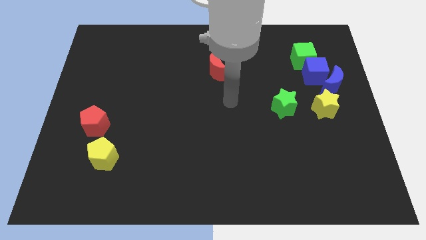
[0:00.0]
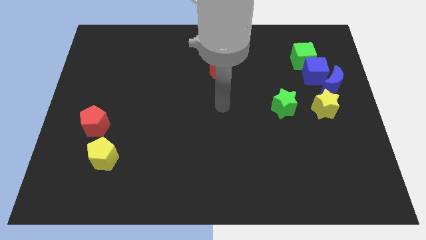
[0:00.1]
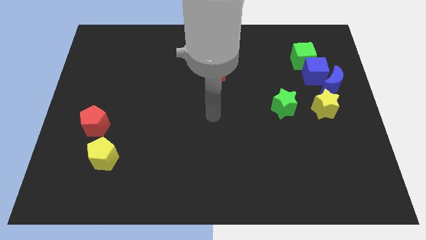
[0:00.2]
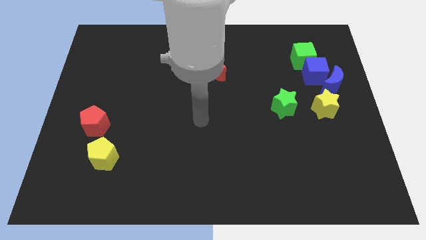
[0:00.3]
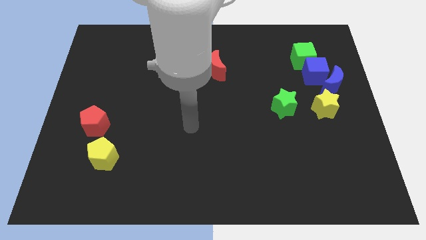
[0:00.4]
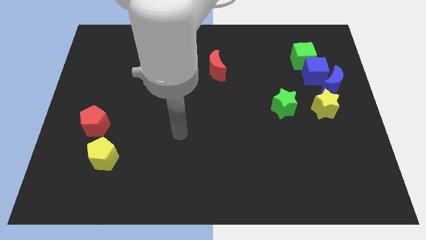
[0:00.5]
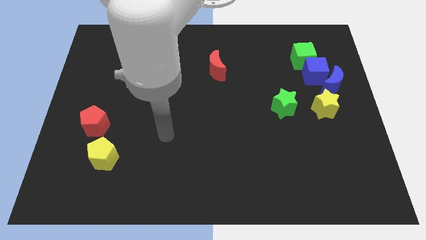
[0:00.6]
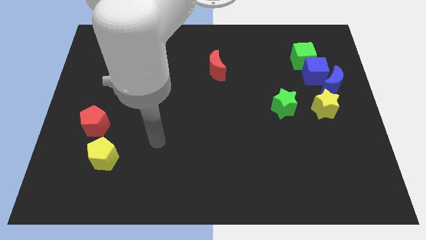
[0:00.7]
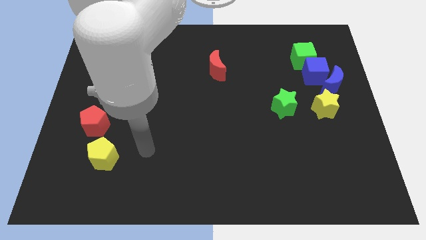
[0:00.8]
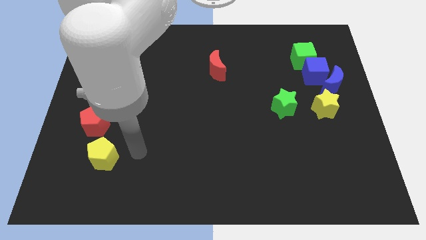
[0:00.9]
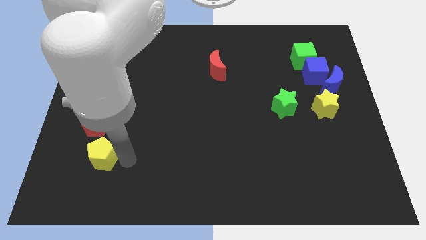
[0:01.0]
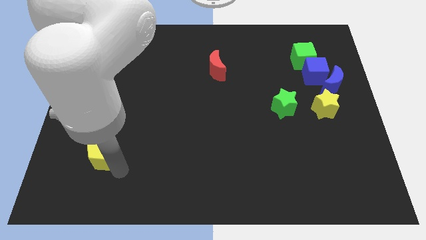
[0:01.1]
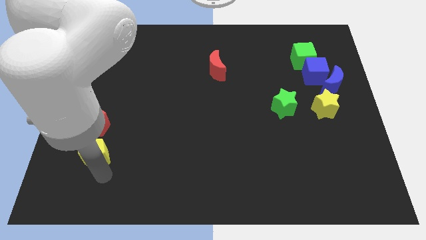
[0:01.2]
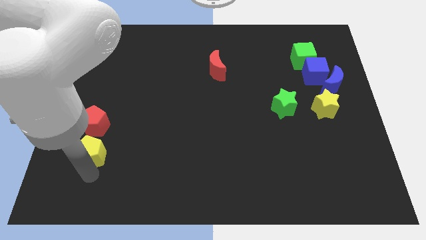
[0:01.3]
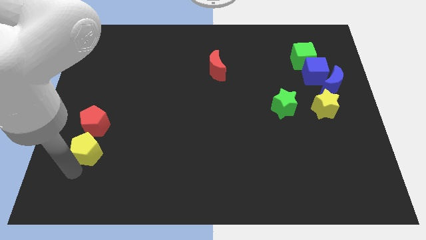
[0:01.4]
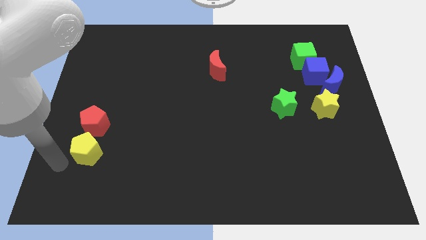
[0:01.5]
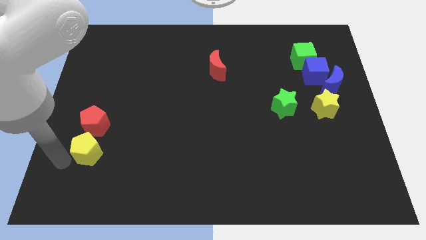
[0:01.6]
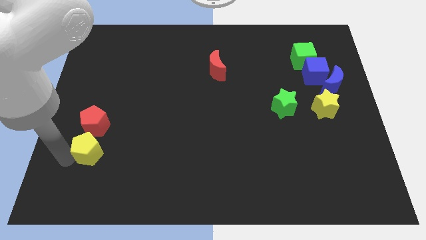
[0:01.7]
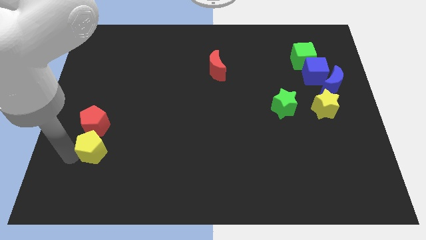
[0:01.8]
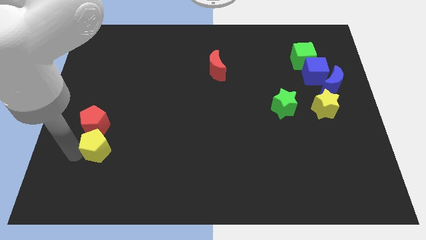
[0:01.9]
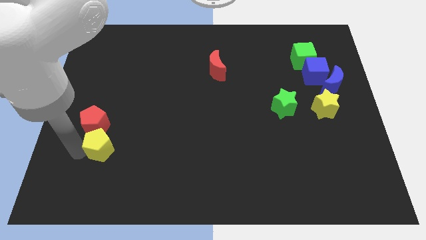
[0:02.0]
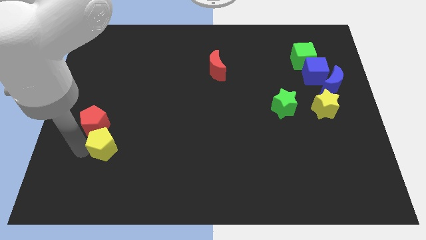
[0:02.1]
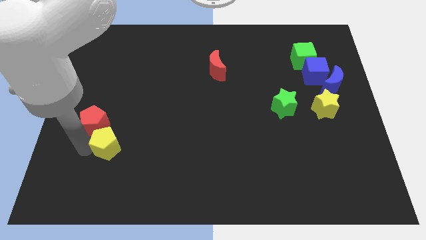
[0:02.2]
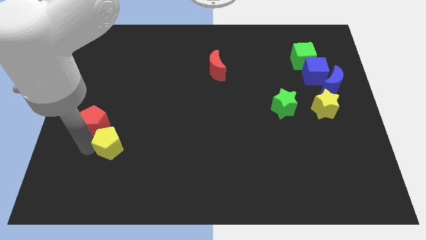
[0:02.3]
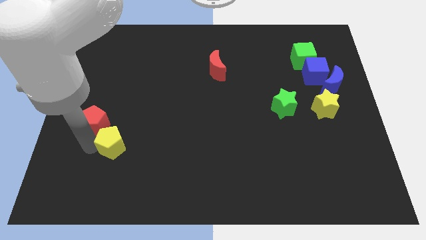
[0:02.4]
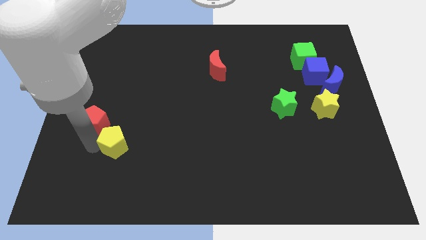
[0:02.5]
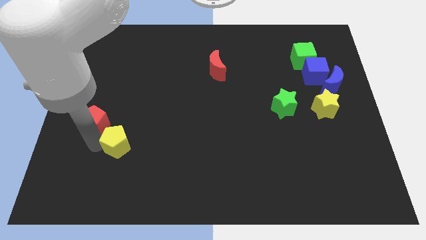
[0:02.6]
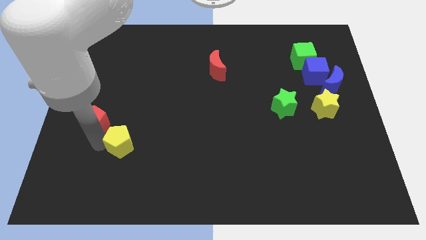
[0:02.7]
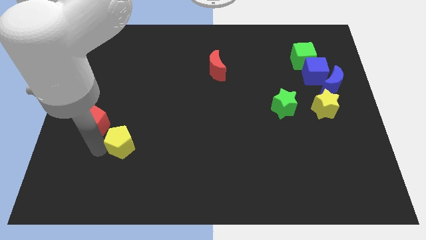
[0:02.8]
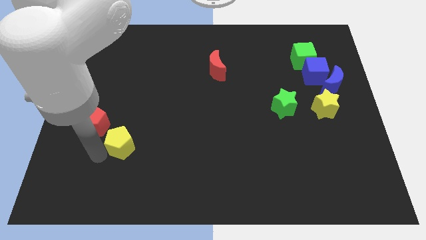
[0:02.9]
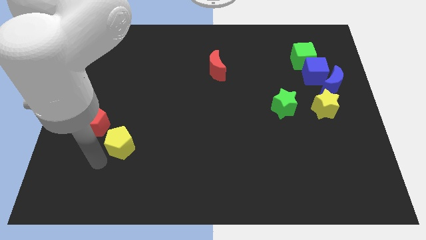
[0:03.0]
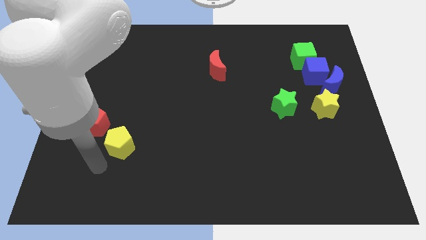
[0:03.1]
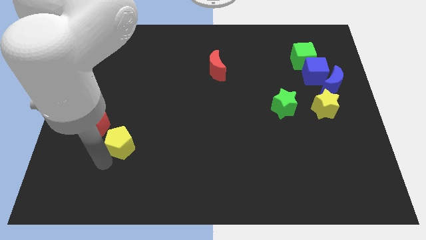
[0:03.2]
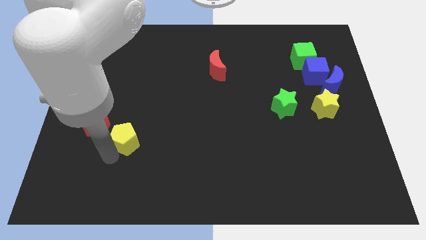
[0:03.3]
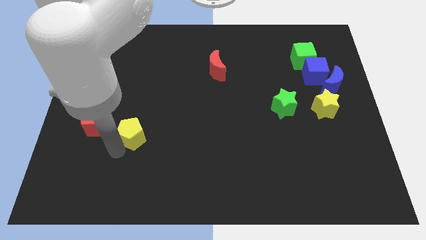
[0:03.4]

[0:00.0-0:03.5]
move the yellow pentagon a bit up and right diagonally

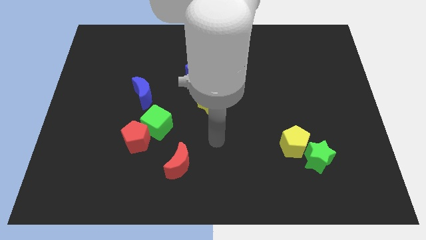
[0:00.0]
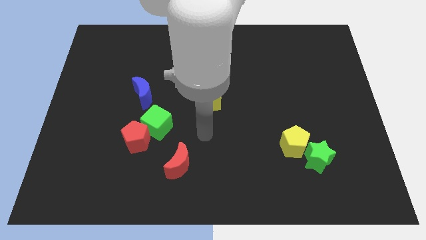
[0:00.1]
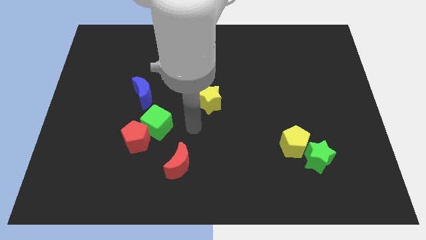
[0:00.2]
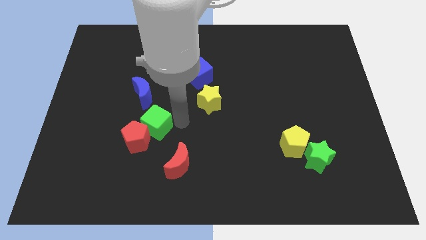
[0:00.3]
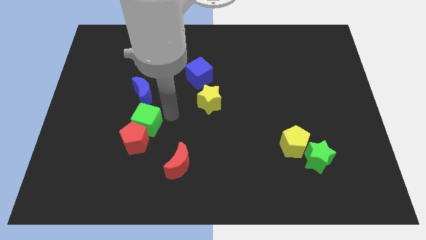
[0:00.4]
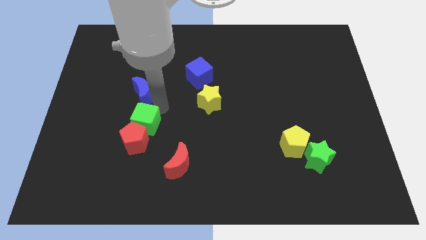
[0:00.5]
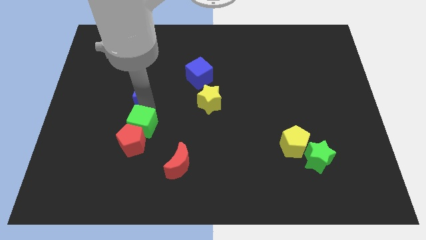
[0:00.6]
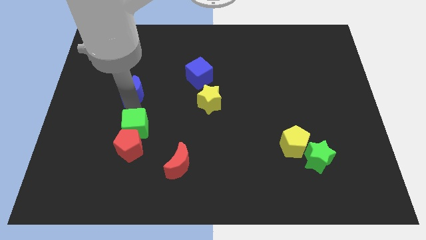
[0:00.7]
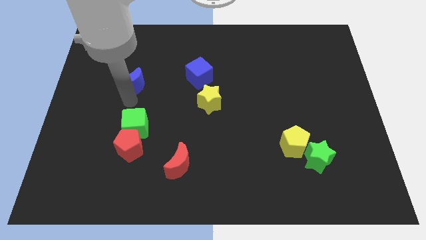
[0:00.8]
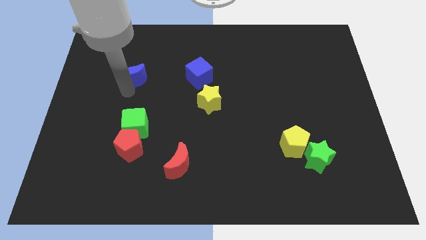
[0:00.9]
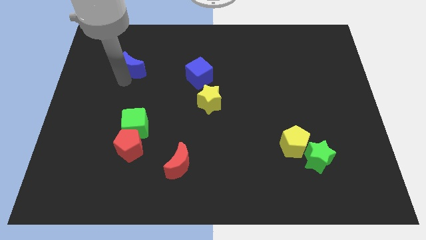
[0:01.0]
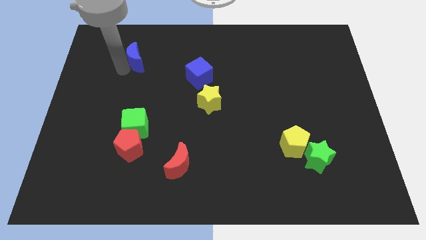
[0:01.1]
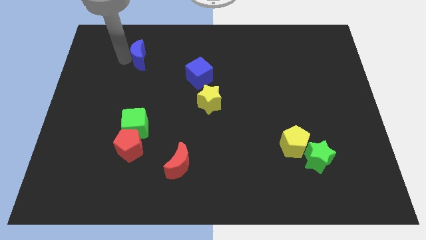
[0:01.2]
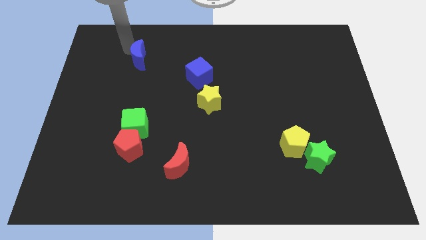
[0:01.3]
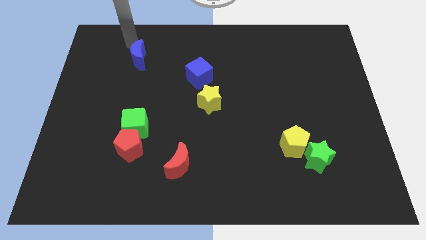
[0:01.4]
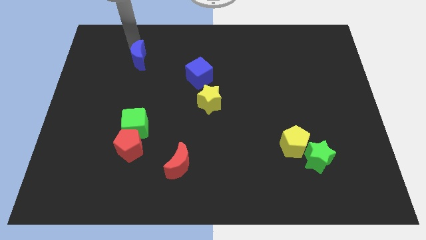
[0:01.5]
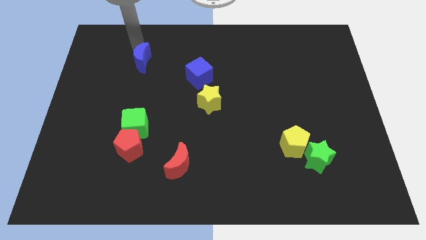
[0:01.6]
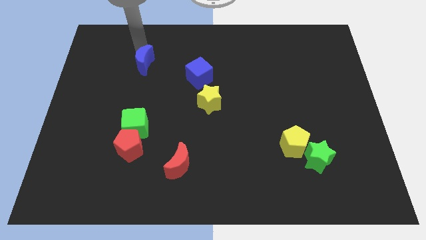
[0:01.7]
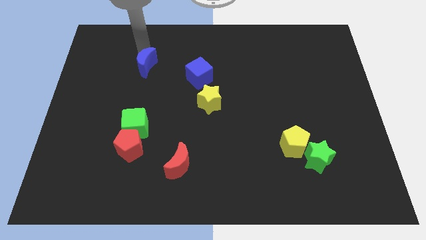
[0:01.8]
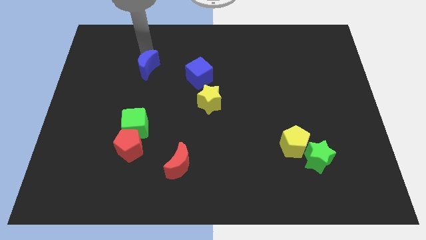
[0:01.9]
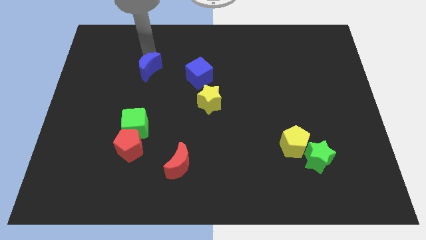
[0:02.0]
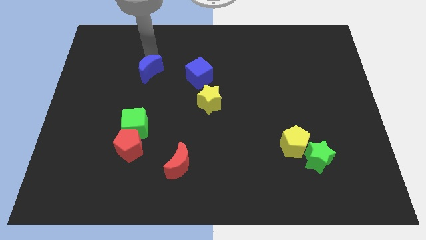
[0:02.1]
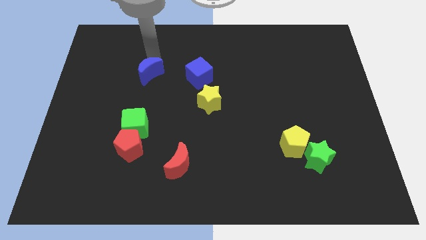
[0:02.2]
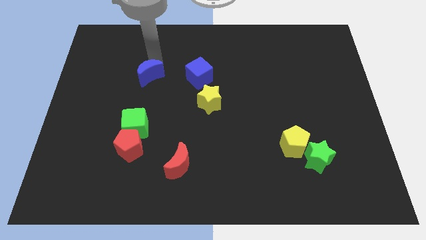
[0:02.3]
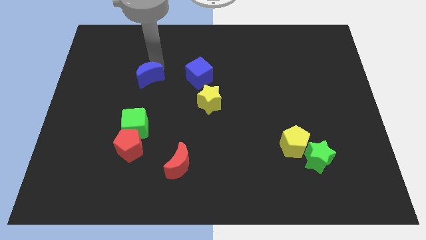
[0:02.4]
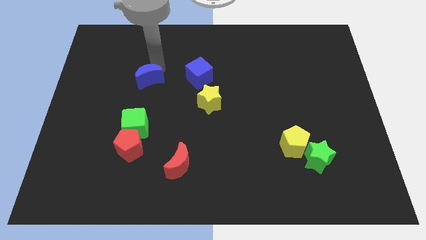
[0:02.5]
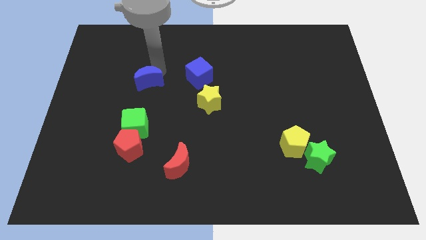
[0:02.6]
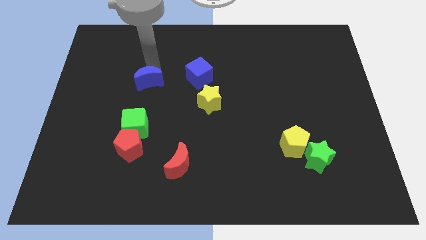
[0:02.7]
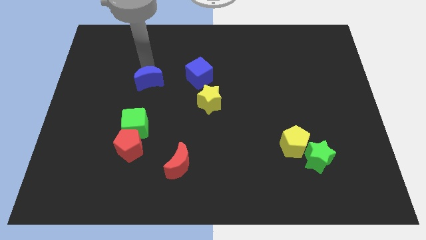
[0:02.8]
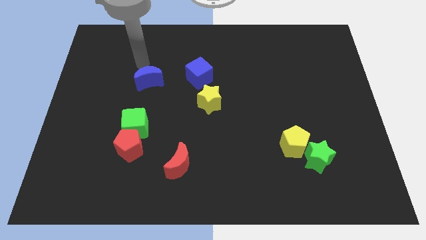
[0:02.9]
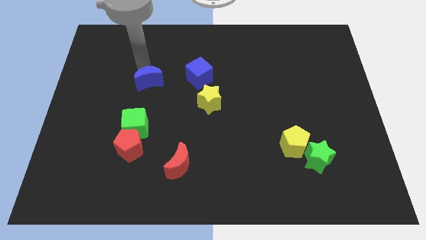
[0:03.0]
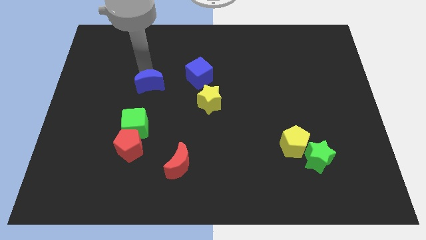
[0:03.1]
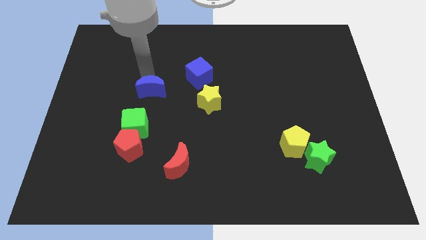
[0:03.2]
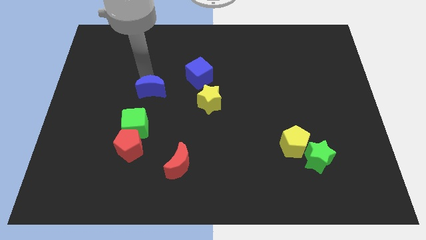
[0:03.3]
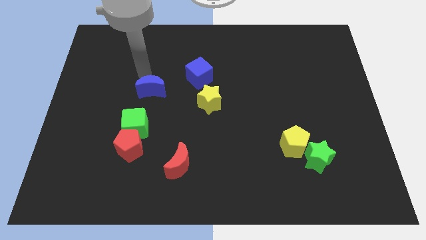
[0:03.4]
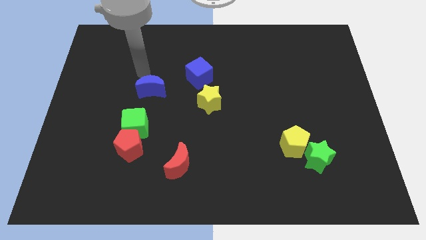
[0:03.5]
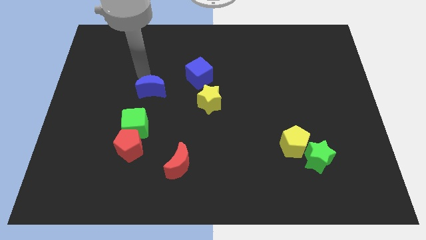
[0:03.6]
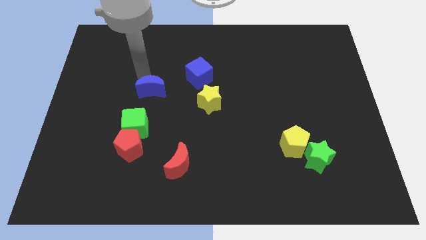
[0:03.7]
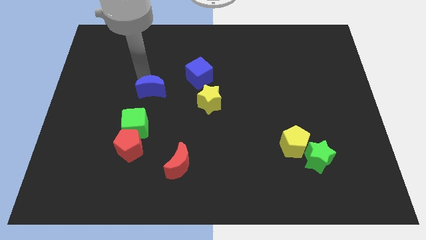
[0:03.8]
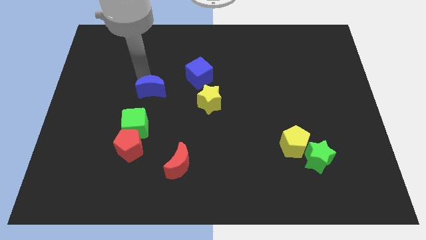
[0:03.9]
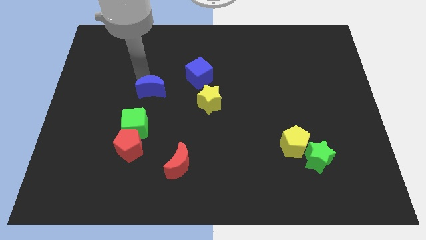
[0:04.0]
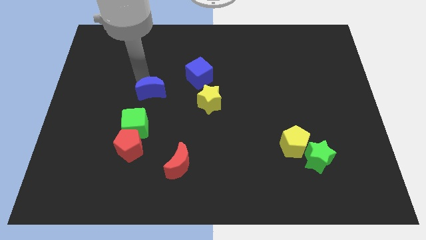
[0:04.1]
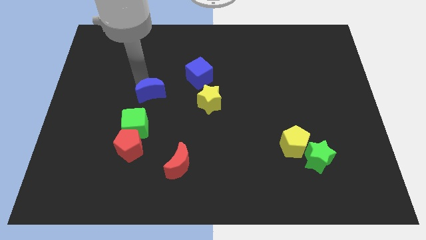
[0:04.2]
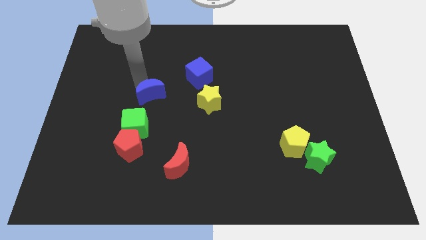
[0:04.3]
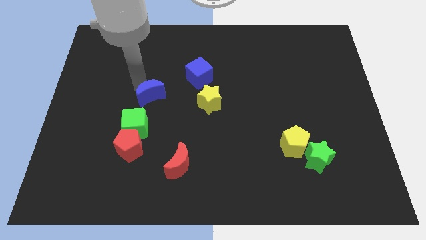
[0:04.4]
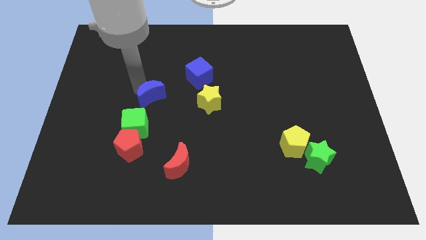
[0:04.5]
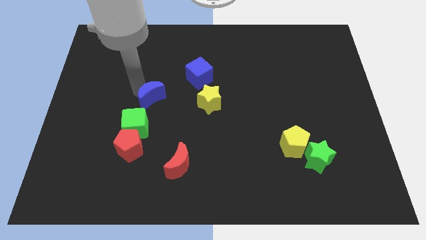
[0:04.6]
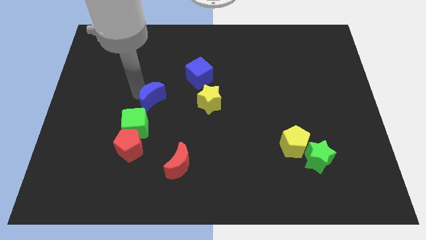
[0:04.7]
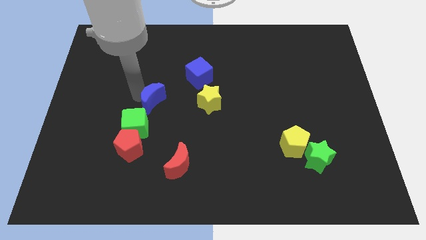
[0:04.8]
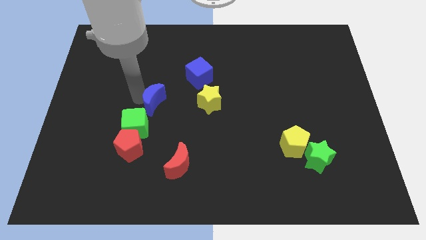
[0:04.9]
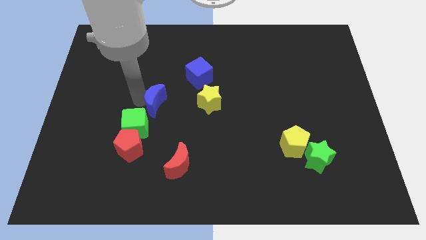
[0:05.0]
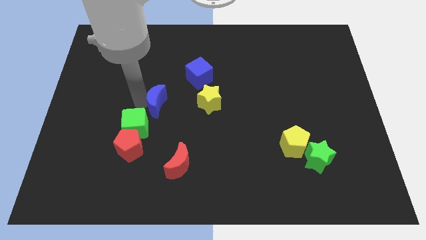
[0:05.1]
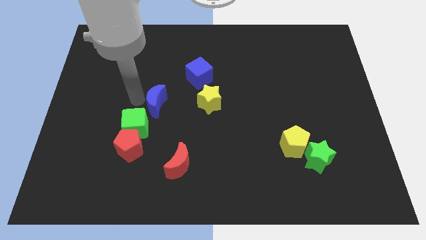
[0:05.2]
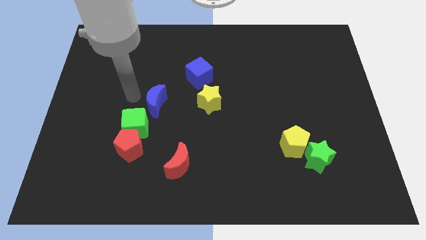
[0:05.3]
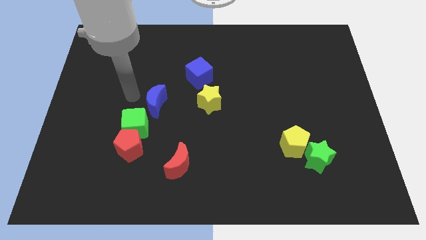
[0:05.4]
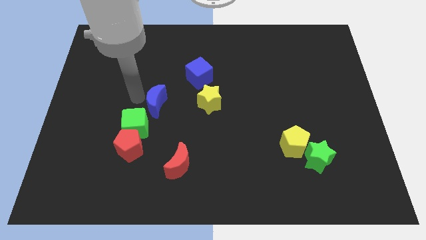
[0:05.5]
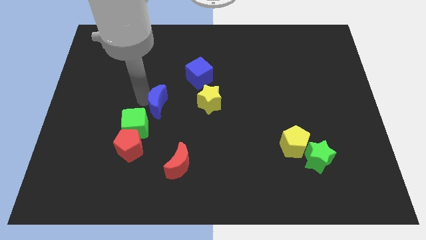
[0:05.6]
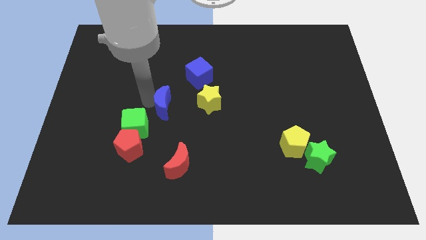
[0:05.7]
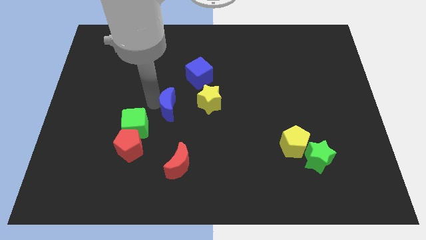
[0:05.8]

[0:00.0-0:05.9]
move the blue moon down and right slightly
